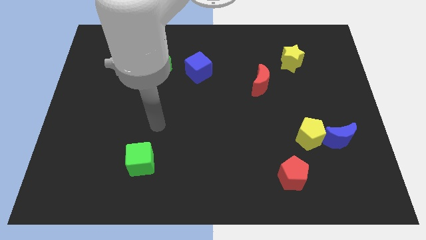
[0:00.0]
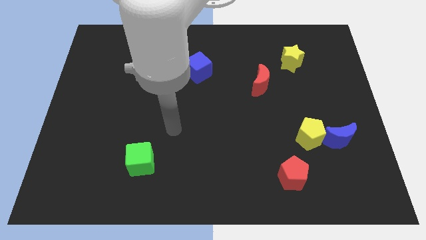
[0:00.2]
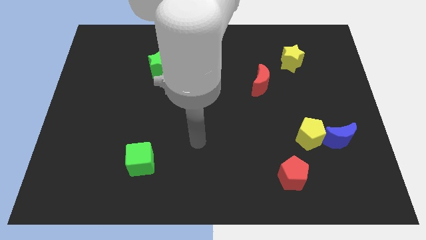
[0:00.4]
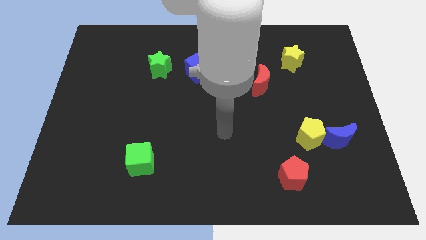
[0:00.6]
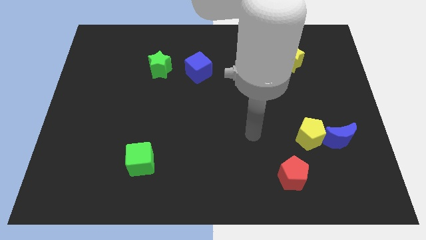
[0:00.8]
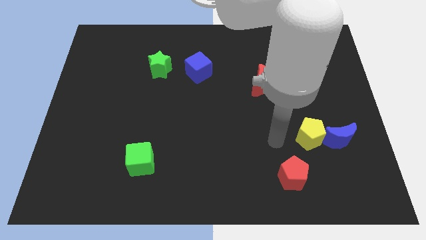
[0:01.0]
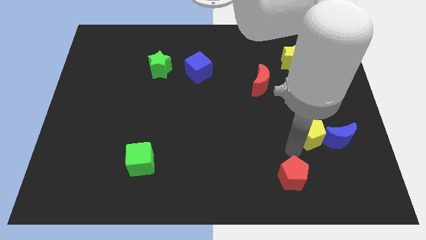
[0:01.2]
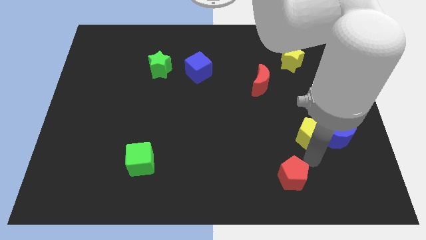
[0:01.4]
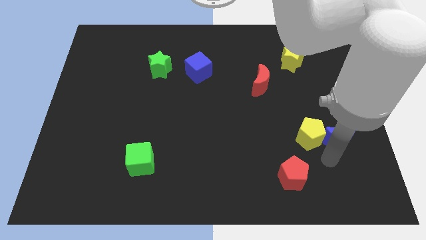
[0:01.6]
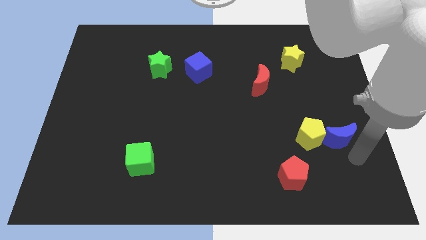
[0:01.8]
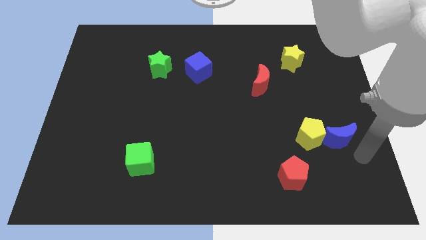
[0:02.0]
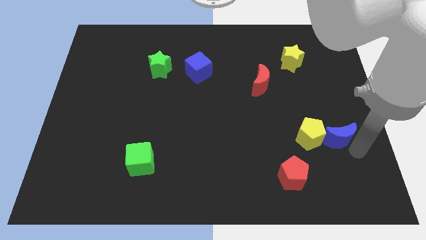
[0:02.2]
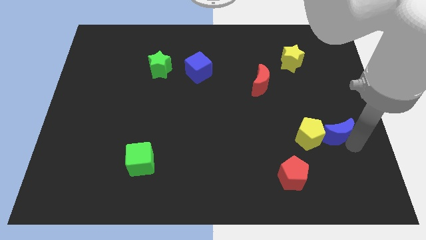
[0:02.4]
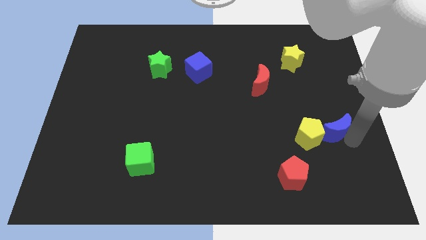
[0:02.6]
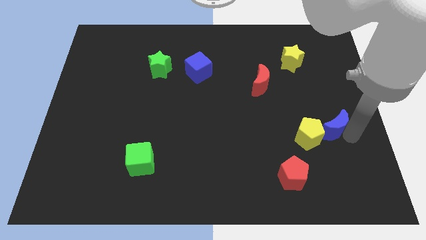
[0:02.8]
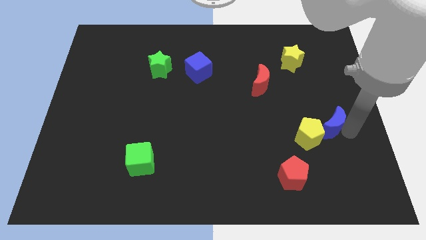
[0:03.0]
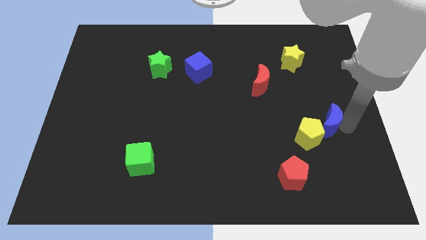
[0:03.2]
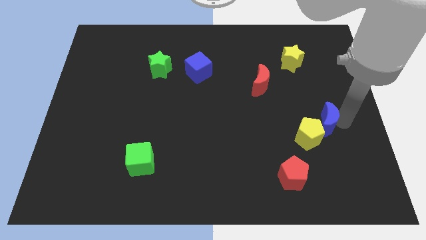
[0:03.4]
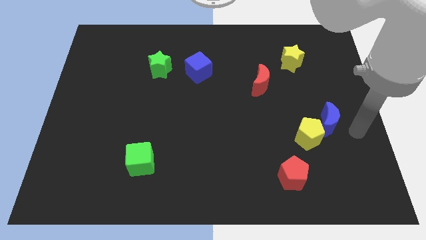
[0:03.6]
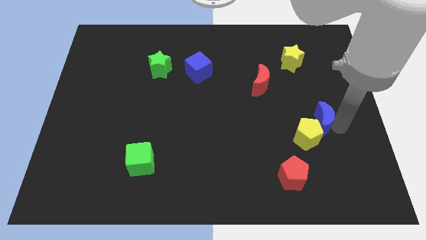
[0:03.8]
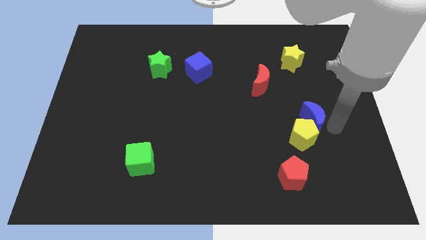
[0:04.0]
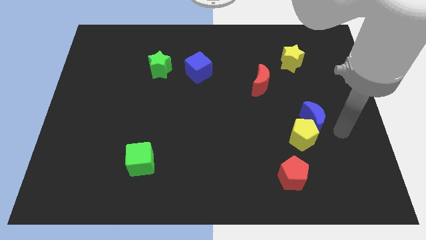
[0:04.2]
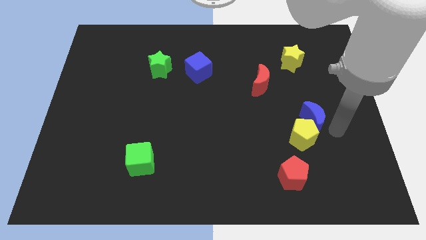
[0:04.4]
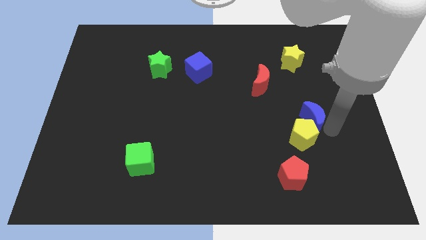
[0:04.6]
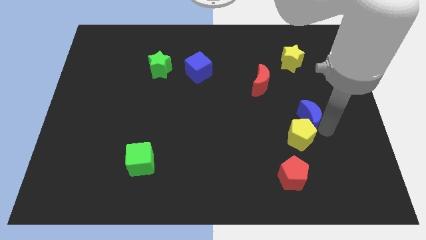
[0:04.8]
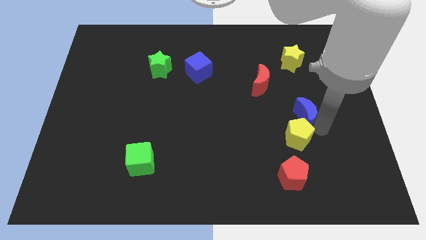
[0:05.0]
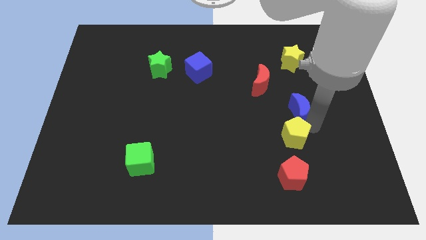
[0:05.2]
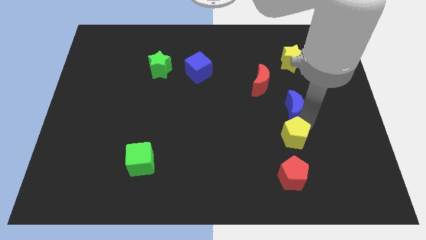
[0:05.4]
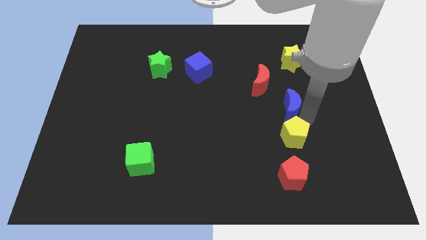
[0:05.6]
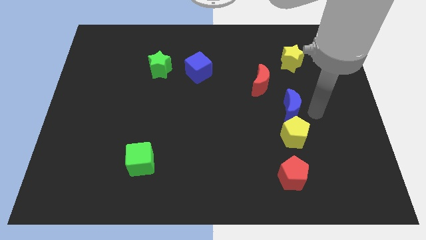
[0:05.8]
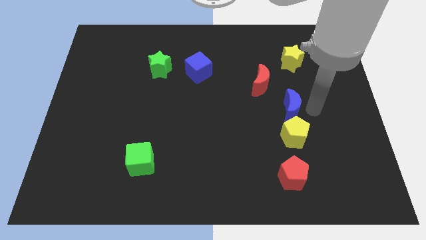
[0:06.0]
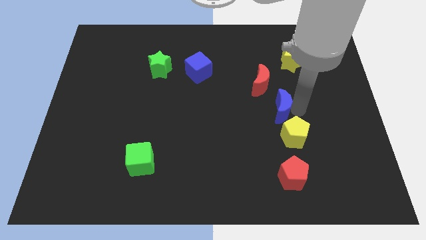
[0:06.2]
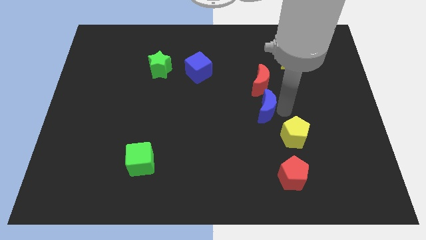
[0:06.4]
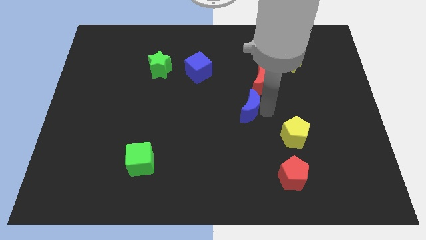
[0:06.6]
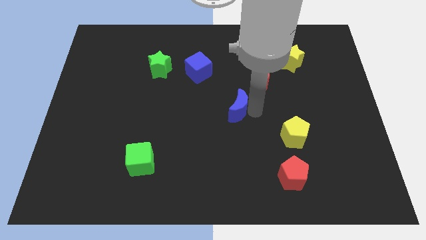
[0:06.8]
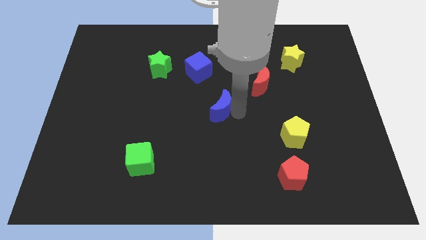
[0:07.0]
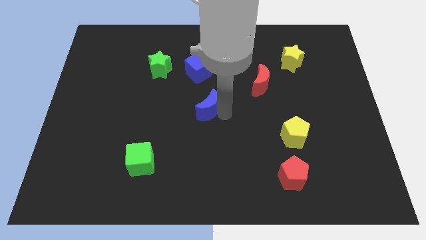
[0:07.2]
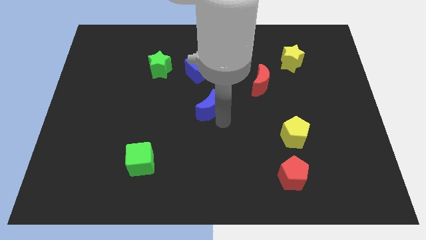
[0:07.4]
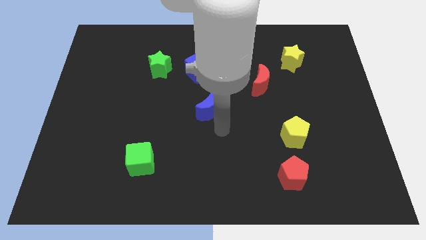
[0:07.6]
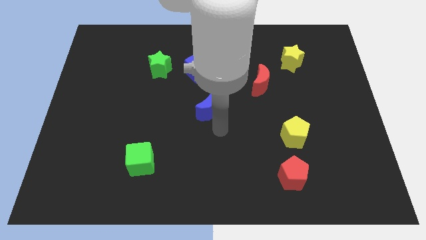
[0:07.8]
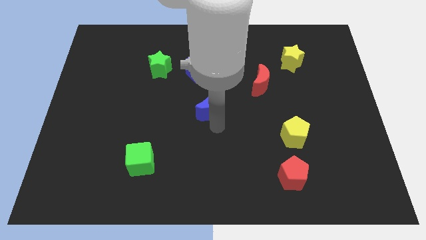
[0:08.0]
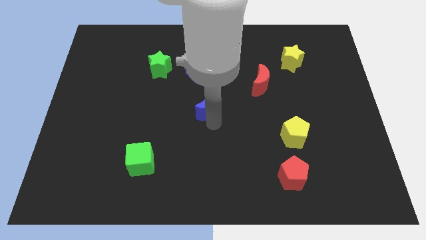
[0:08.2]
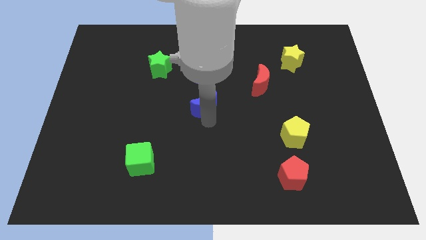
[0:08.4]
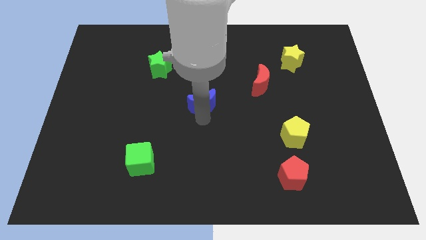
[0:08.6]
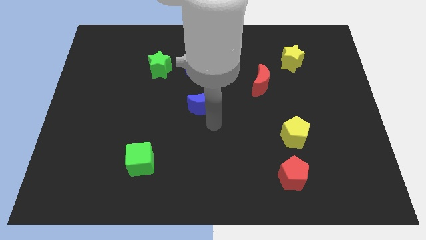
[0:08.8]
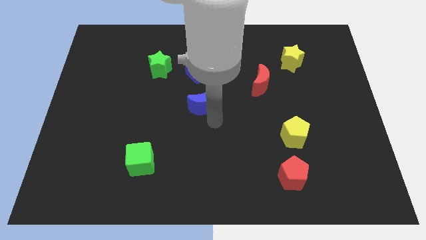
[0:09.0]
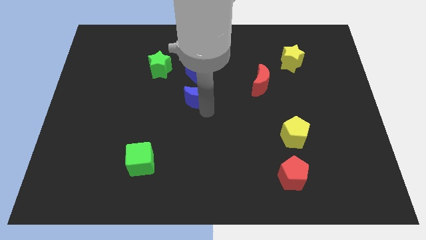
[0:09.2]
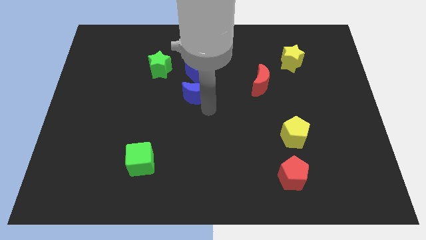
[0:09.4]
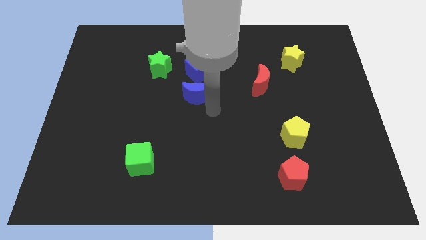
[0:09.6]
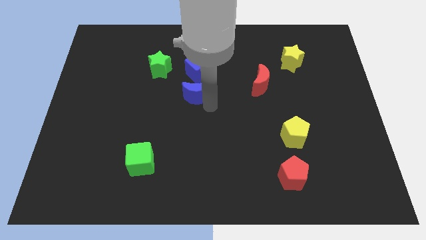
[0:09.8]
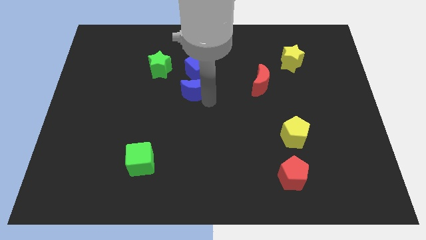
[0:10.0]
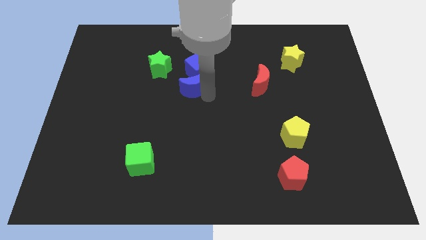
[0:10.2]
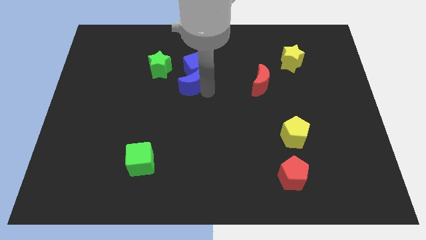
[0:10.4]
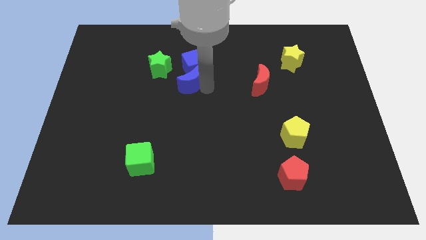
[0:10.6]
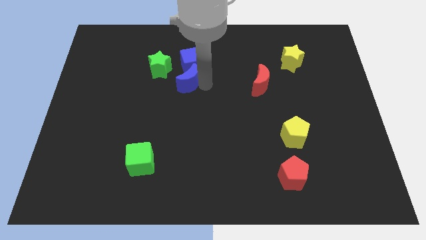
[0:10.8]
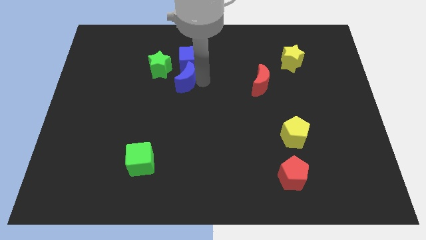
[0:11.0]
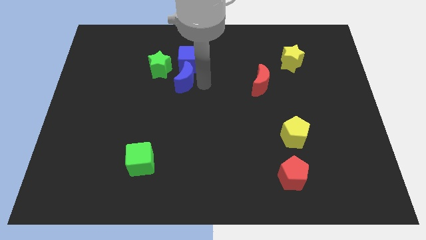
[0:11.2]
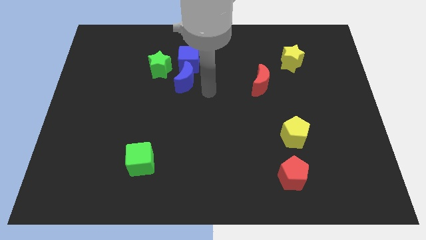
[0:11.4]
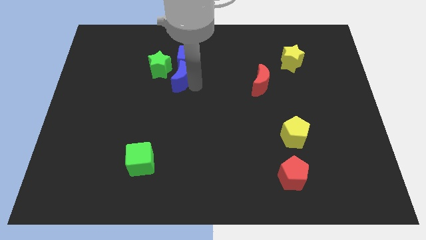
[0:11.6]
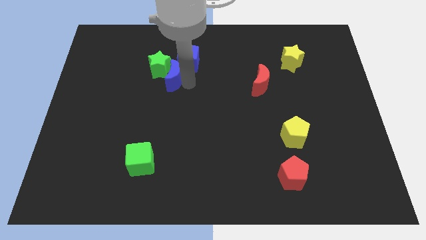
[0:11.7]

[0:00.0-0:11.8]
put the blue moon next to the green star
